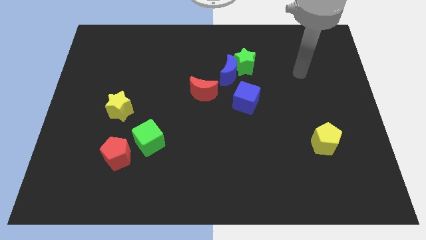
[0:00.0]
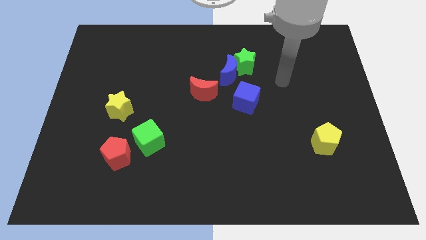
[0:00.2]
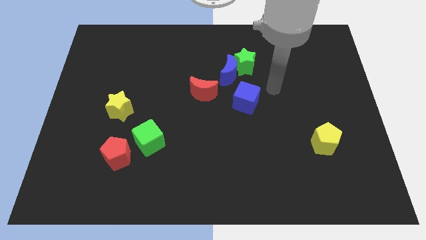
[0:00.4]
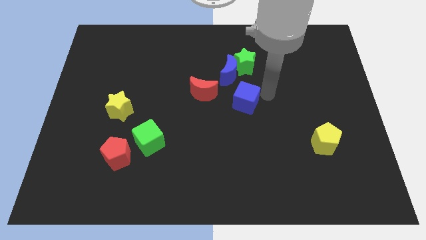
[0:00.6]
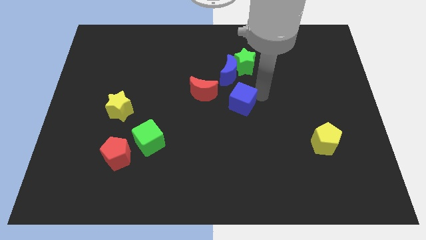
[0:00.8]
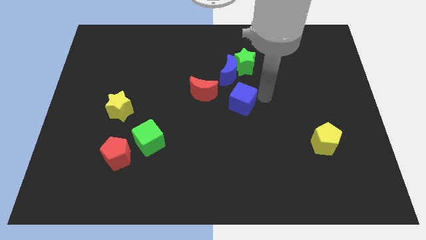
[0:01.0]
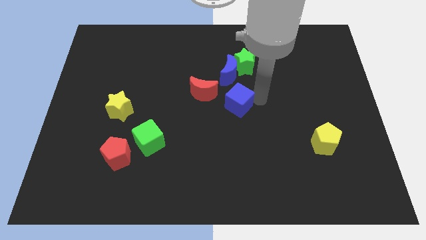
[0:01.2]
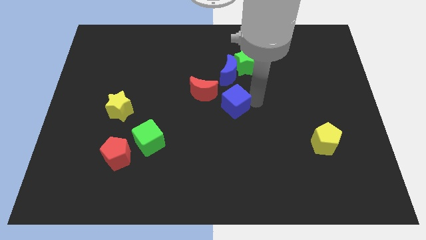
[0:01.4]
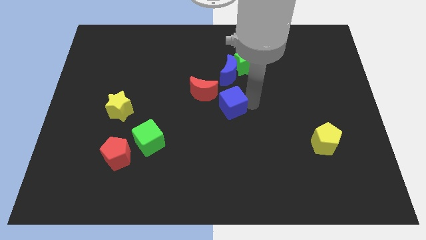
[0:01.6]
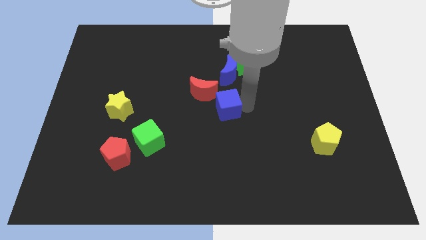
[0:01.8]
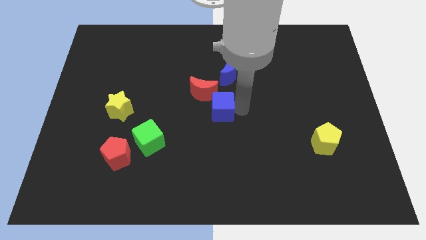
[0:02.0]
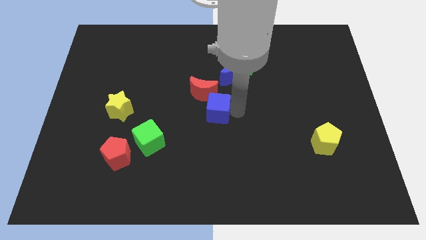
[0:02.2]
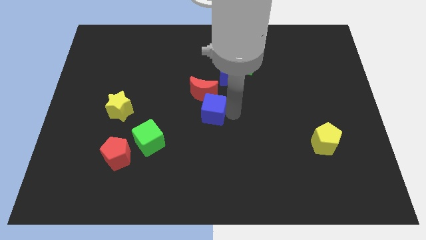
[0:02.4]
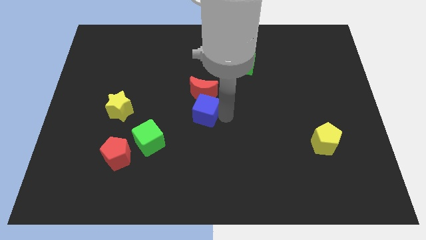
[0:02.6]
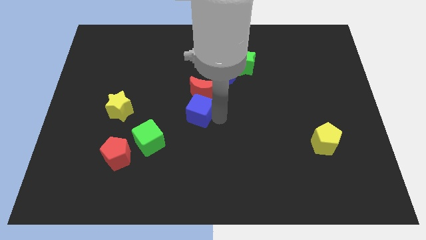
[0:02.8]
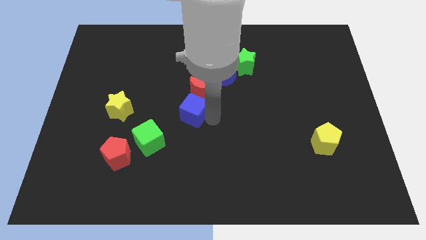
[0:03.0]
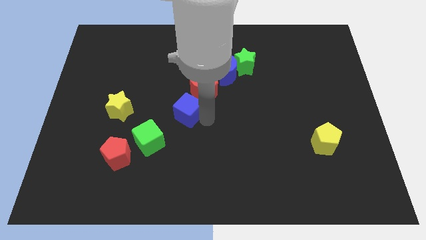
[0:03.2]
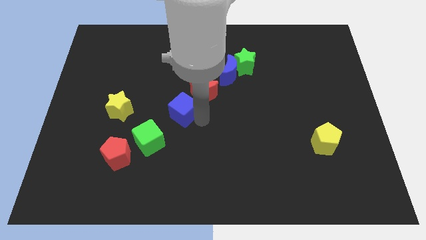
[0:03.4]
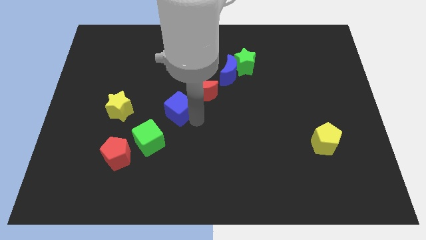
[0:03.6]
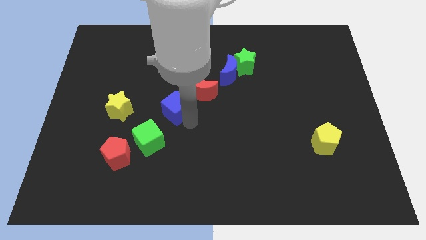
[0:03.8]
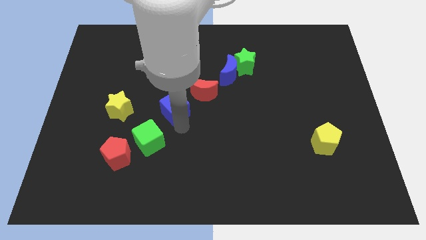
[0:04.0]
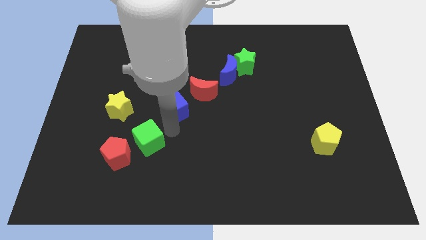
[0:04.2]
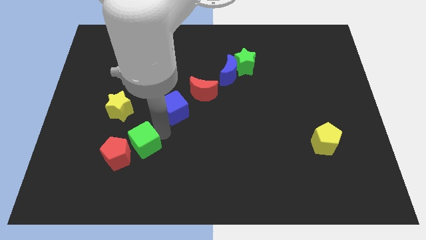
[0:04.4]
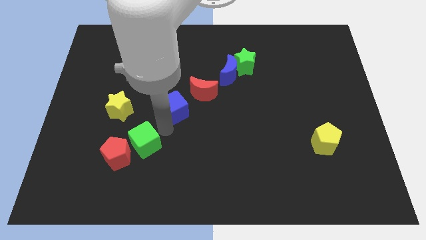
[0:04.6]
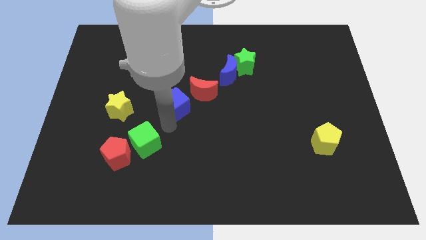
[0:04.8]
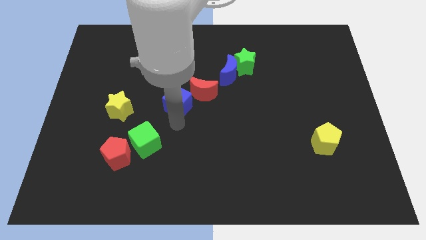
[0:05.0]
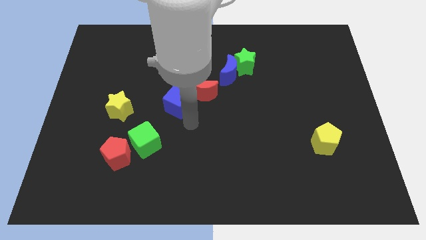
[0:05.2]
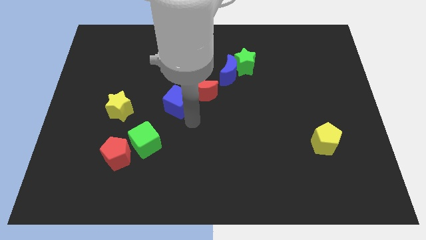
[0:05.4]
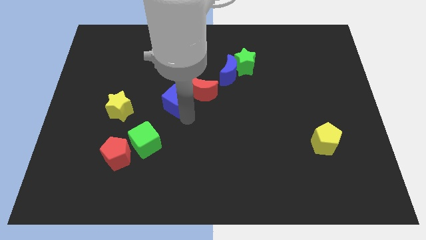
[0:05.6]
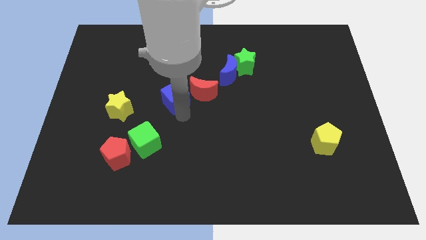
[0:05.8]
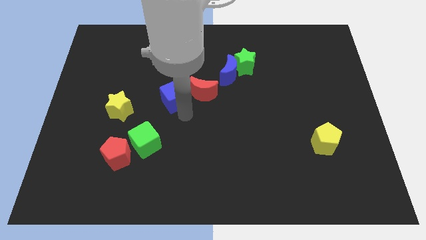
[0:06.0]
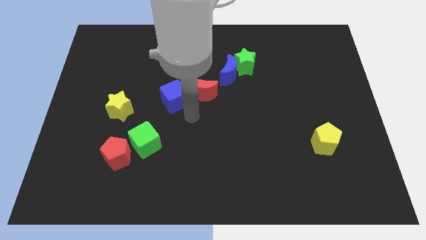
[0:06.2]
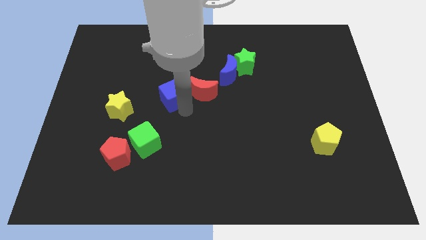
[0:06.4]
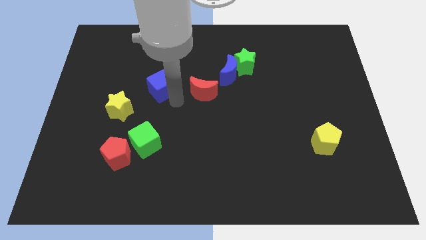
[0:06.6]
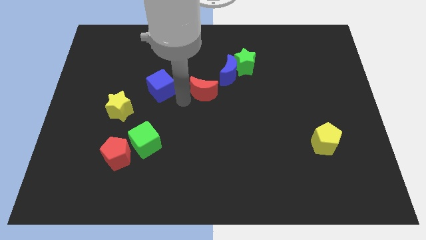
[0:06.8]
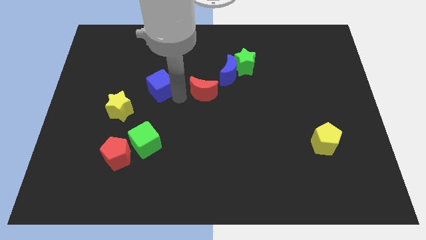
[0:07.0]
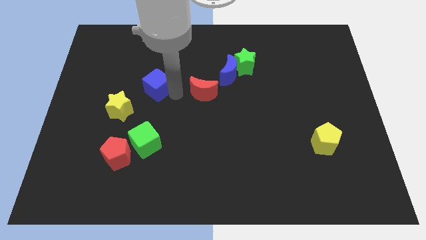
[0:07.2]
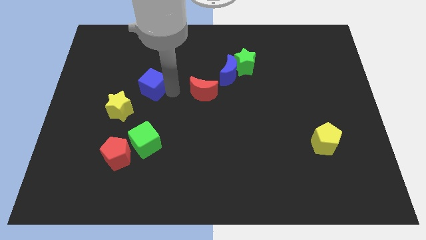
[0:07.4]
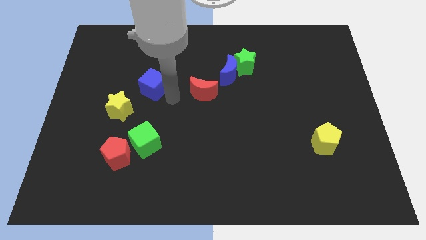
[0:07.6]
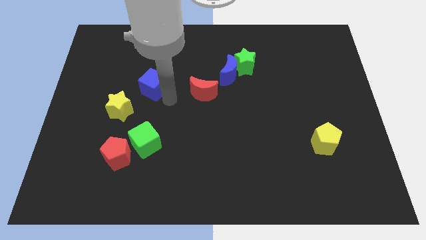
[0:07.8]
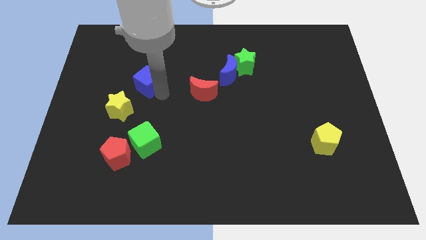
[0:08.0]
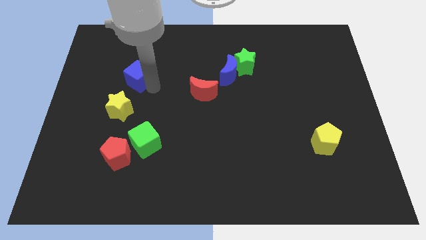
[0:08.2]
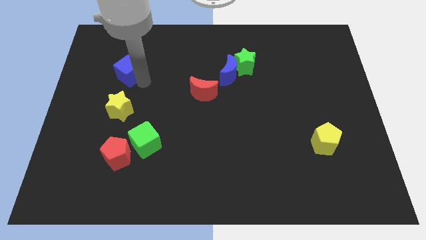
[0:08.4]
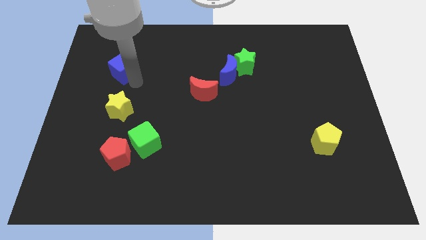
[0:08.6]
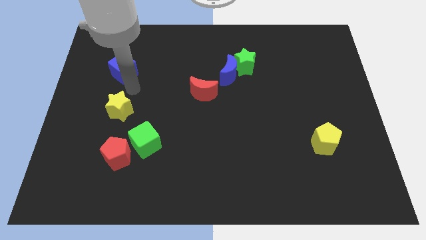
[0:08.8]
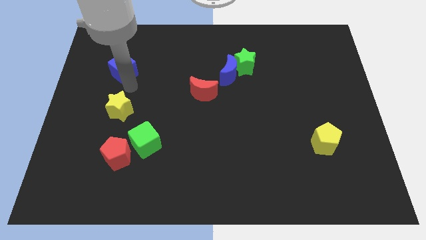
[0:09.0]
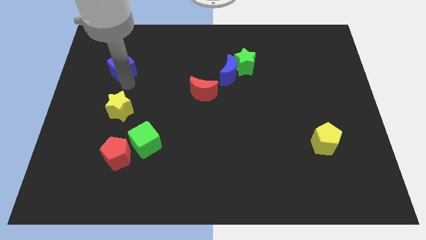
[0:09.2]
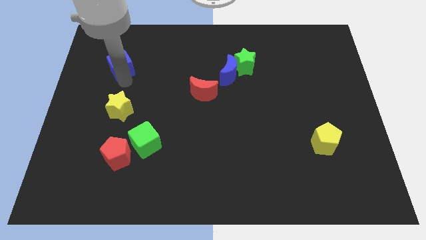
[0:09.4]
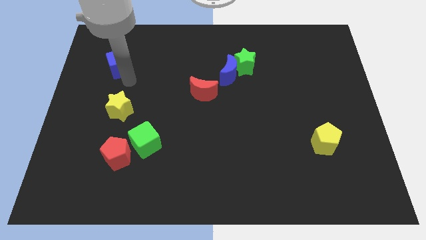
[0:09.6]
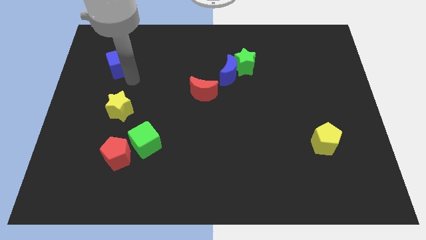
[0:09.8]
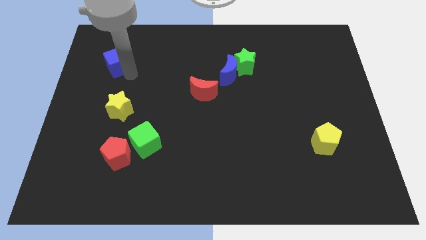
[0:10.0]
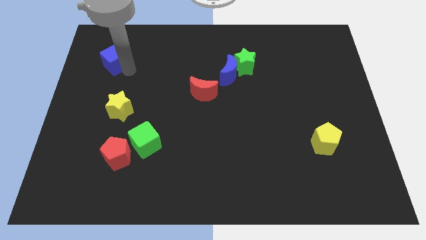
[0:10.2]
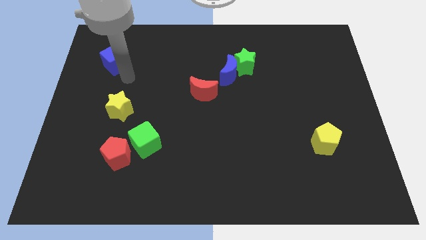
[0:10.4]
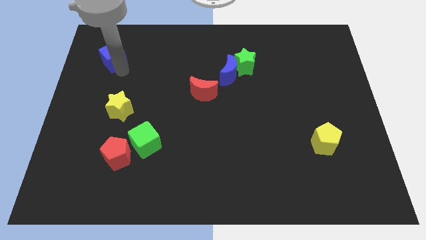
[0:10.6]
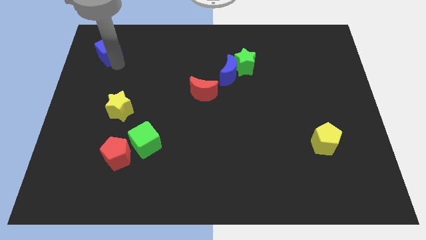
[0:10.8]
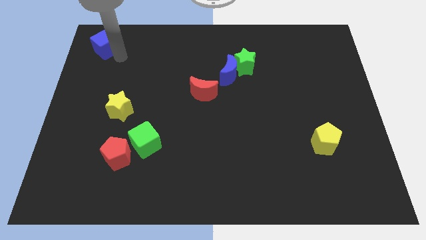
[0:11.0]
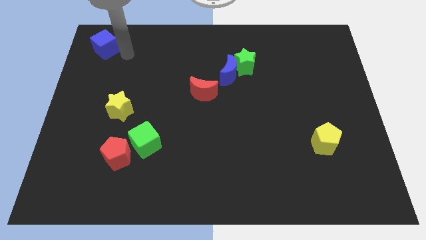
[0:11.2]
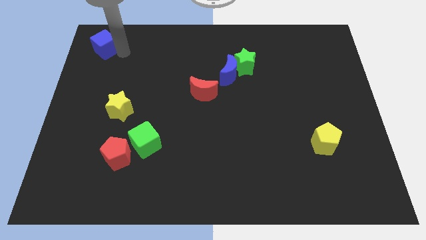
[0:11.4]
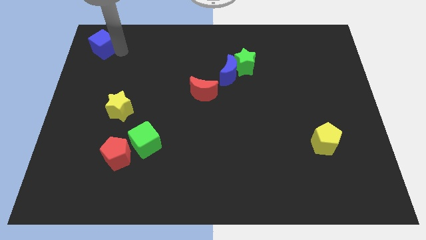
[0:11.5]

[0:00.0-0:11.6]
slide the blue cube to the upper left corner

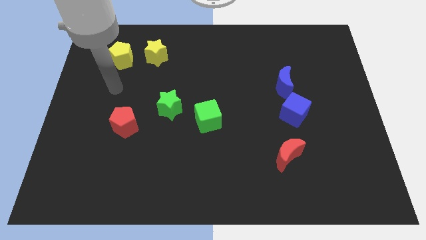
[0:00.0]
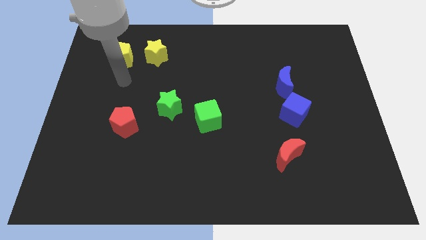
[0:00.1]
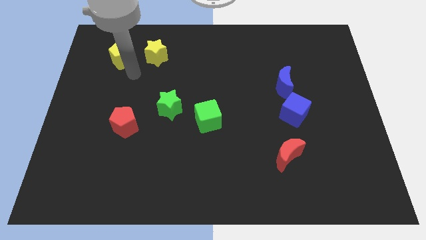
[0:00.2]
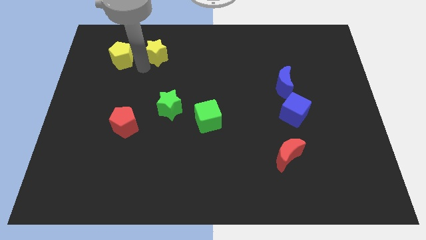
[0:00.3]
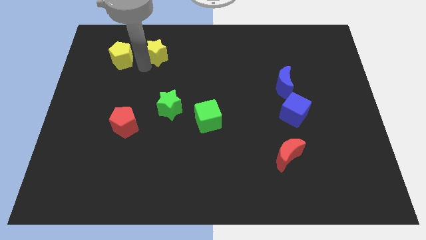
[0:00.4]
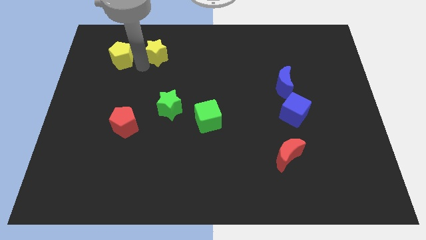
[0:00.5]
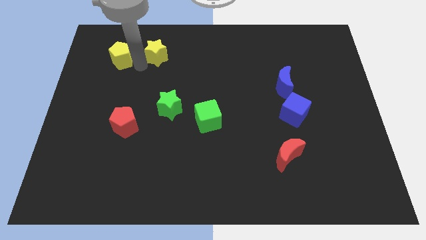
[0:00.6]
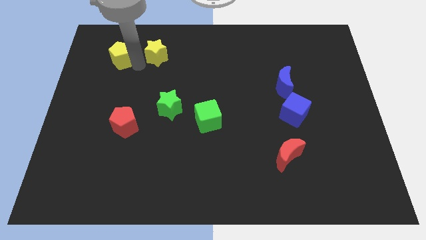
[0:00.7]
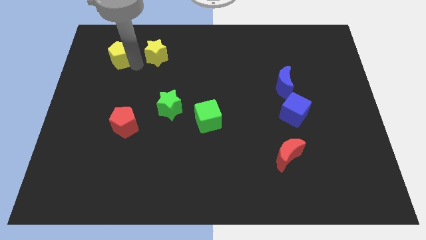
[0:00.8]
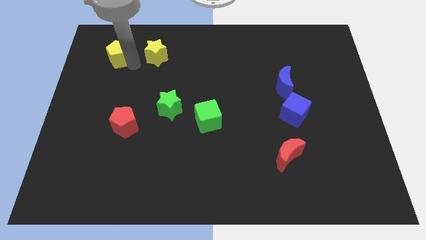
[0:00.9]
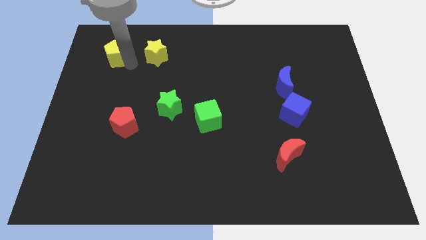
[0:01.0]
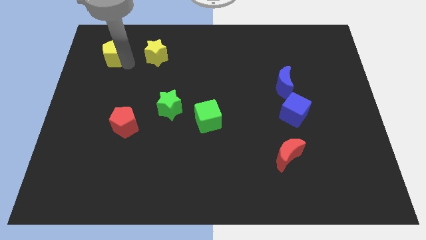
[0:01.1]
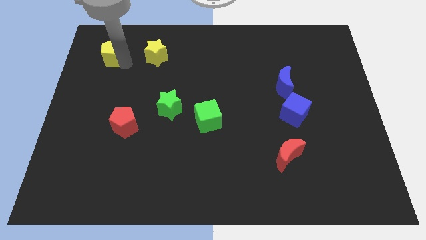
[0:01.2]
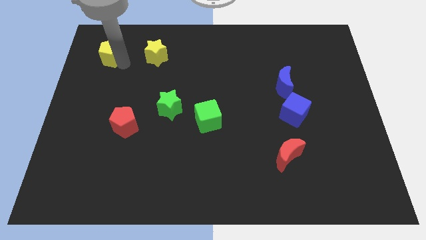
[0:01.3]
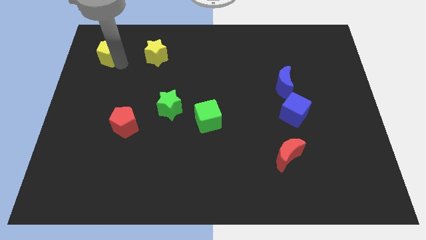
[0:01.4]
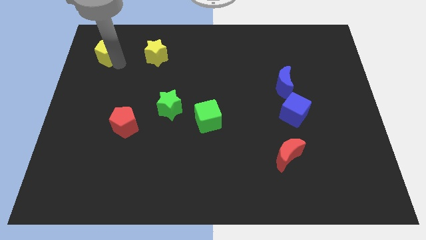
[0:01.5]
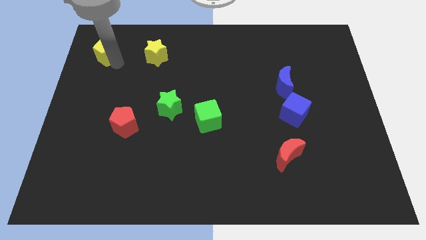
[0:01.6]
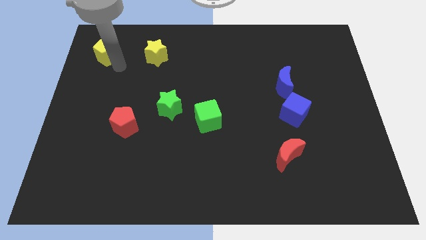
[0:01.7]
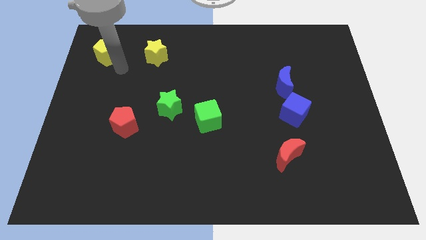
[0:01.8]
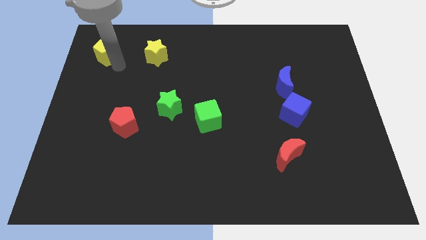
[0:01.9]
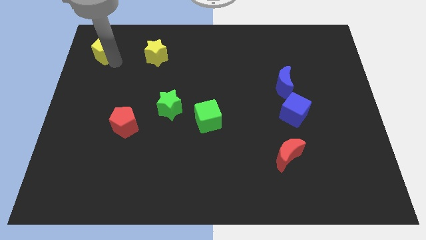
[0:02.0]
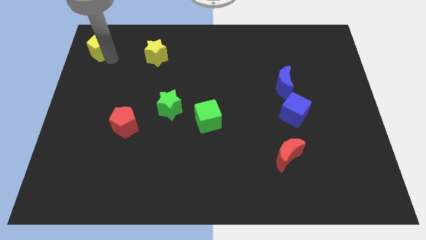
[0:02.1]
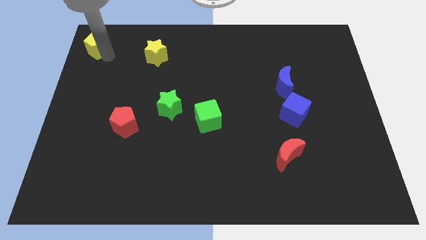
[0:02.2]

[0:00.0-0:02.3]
put the yellow pentagon to the upper left corner
